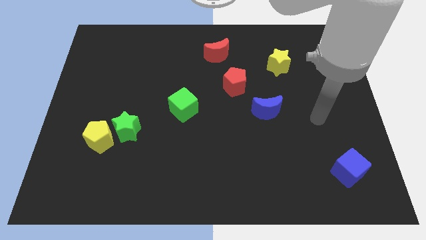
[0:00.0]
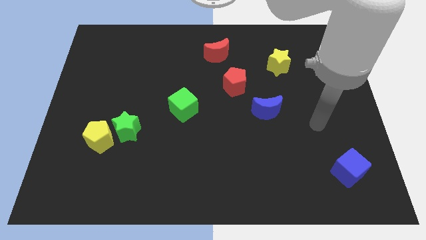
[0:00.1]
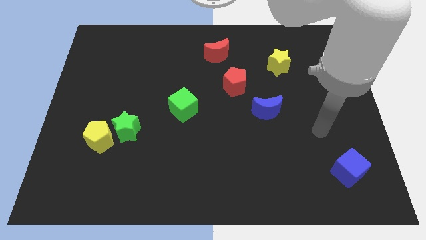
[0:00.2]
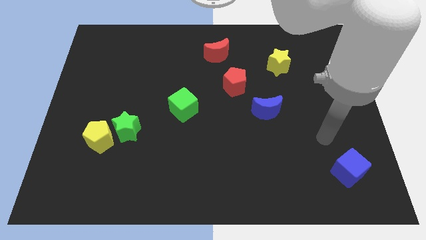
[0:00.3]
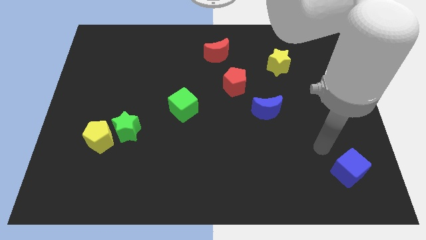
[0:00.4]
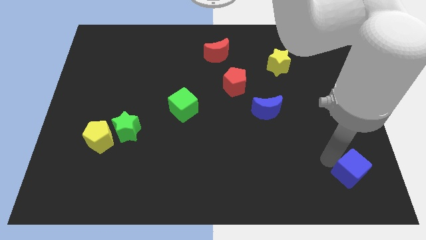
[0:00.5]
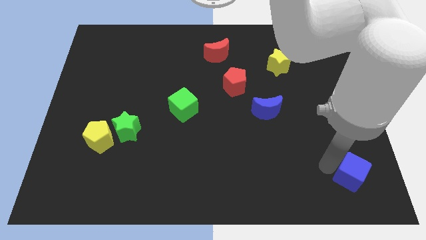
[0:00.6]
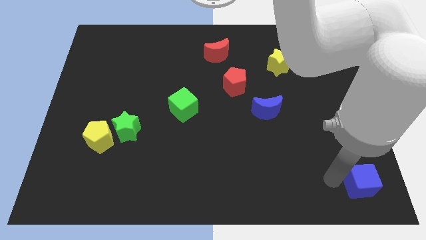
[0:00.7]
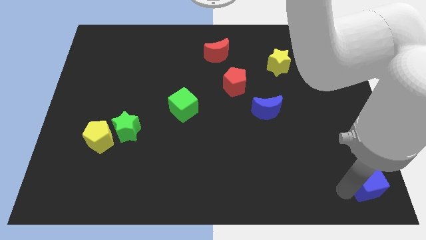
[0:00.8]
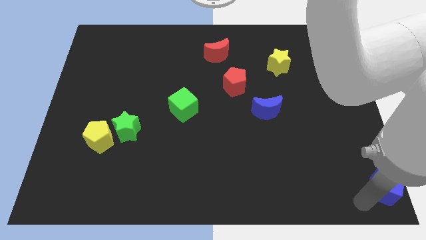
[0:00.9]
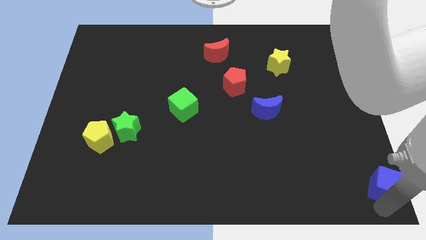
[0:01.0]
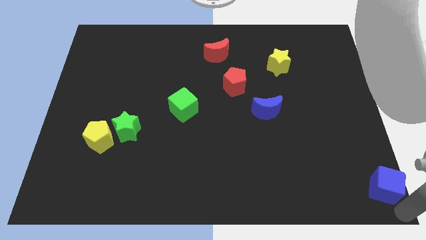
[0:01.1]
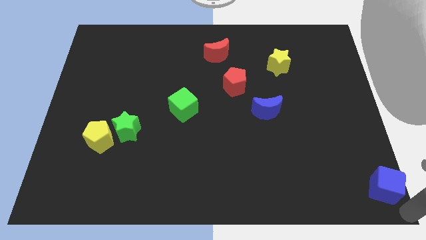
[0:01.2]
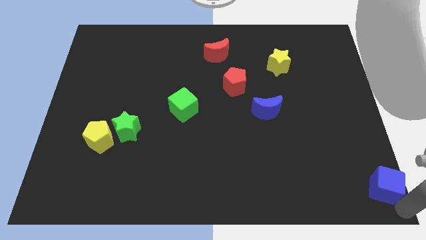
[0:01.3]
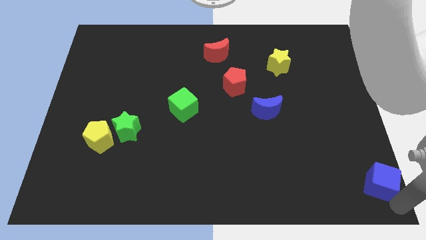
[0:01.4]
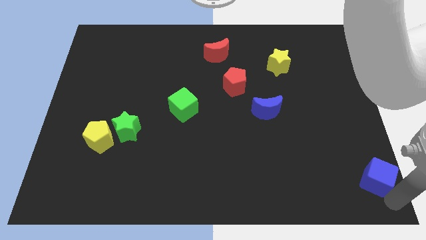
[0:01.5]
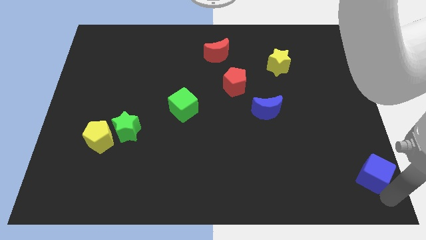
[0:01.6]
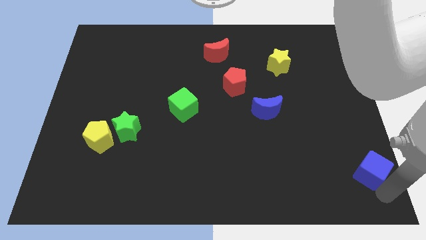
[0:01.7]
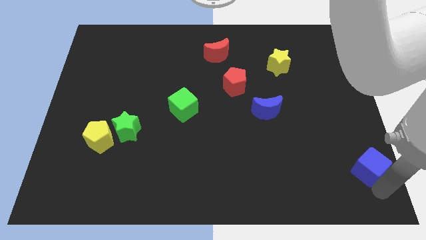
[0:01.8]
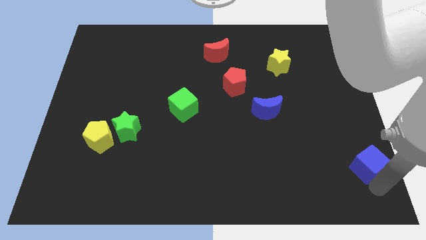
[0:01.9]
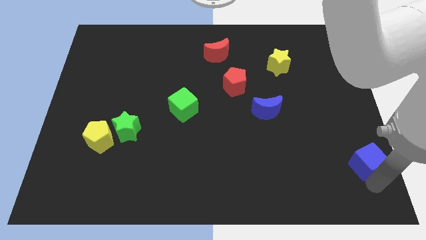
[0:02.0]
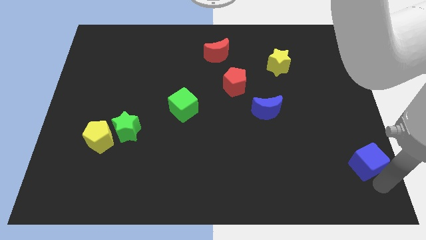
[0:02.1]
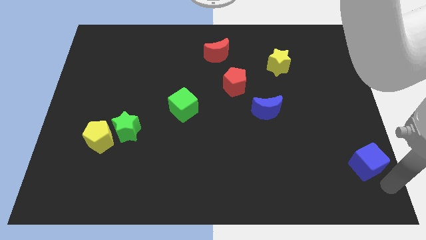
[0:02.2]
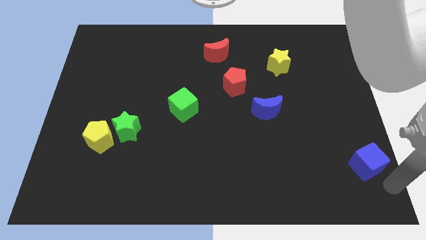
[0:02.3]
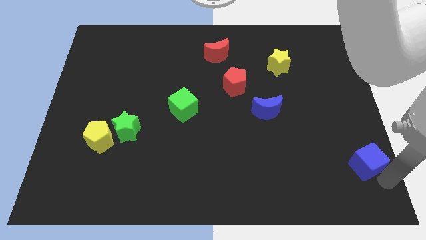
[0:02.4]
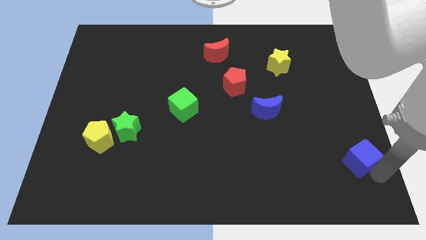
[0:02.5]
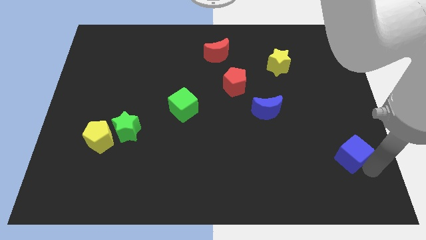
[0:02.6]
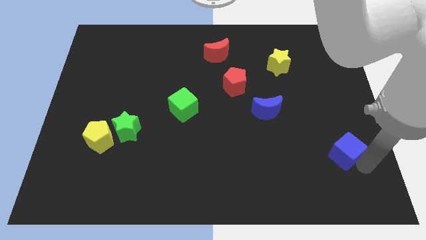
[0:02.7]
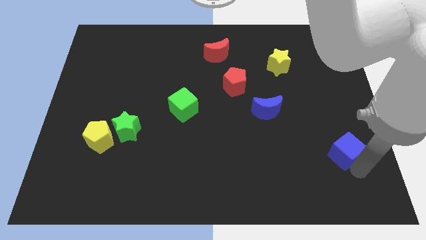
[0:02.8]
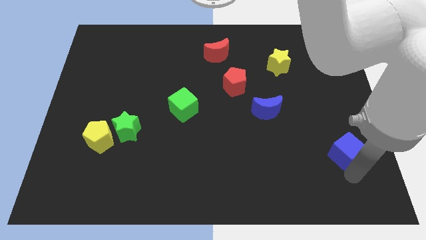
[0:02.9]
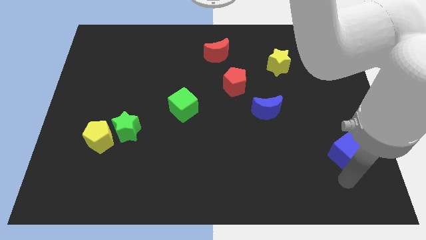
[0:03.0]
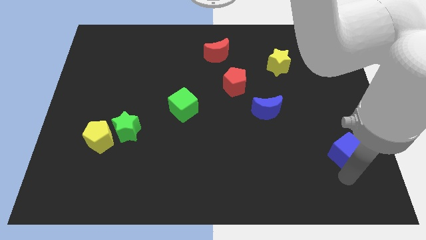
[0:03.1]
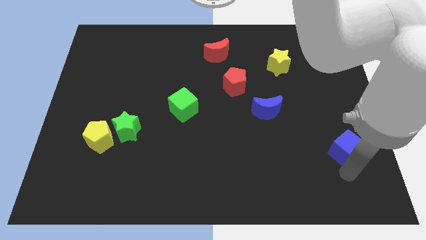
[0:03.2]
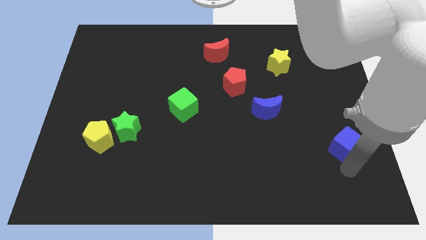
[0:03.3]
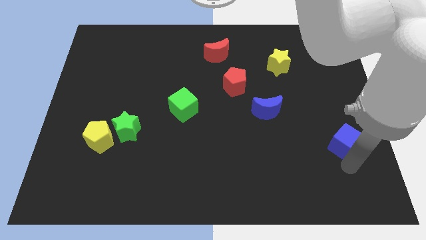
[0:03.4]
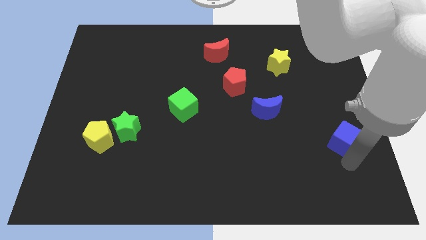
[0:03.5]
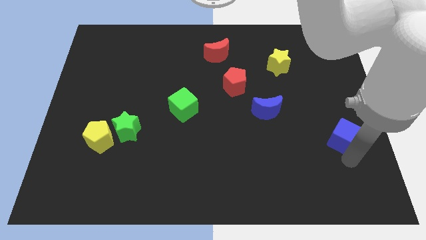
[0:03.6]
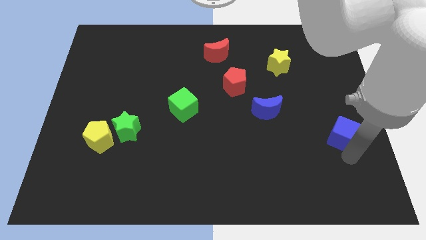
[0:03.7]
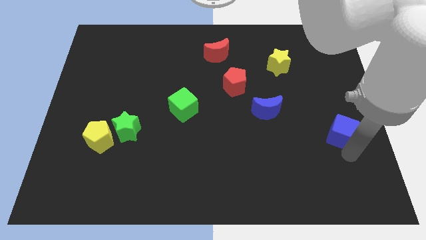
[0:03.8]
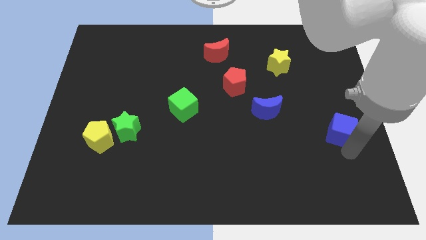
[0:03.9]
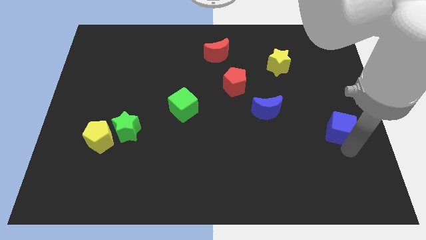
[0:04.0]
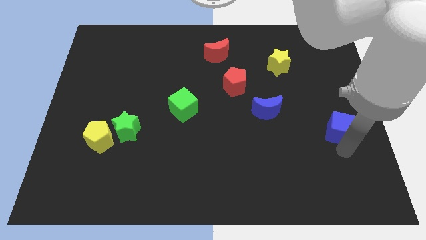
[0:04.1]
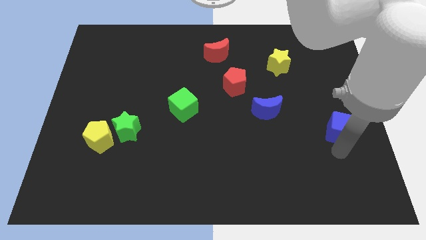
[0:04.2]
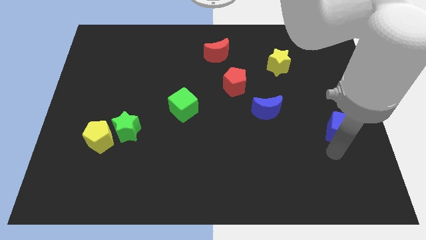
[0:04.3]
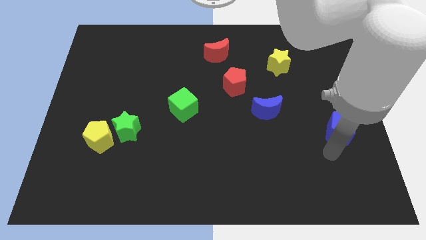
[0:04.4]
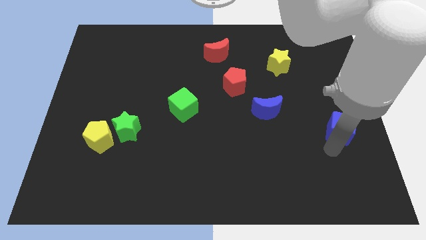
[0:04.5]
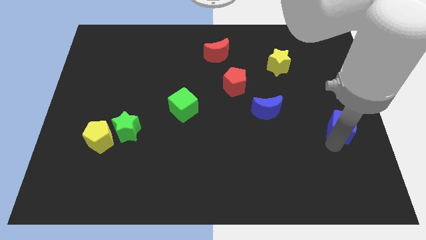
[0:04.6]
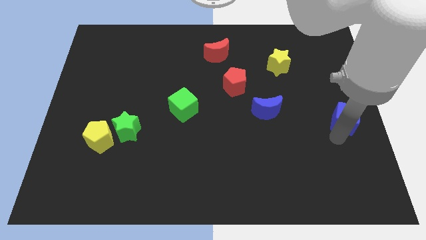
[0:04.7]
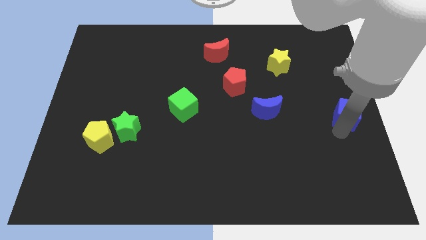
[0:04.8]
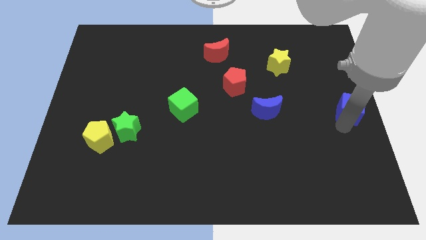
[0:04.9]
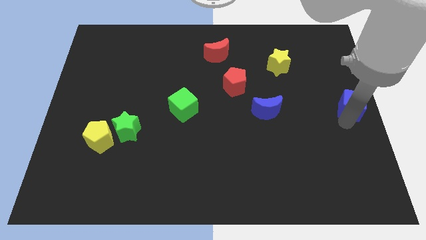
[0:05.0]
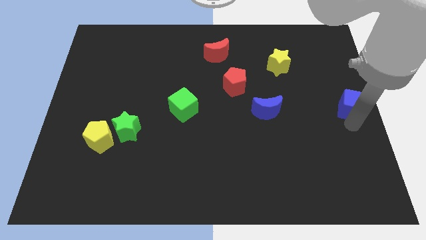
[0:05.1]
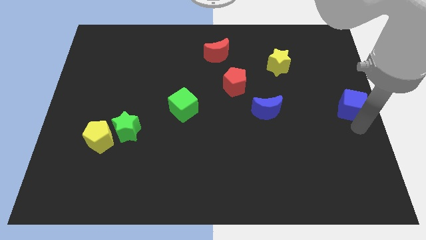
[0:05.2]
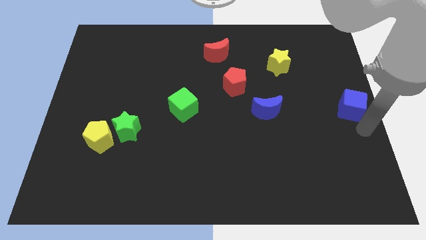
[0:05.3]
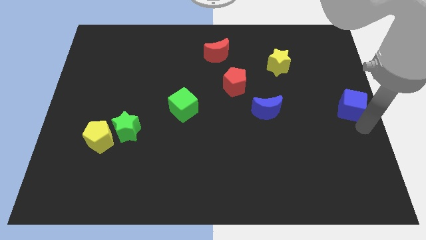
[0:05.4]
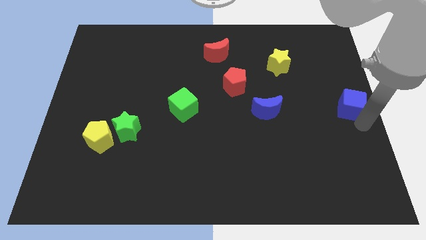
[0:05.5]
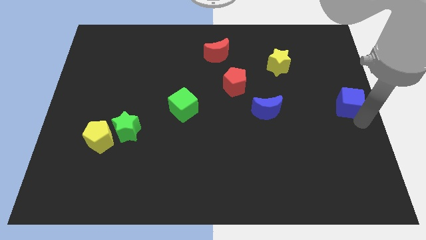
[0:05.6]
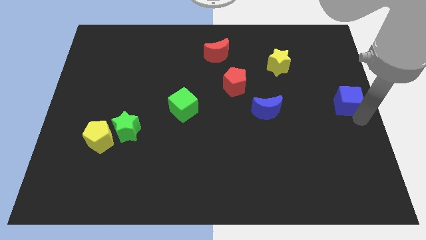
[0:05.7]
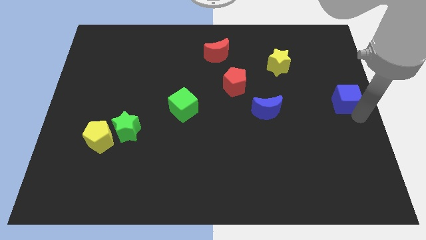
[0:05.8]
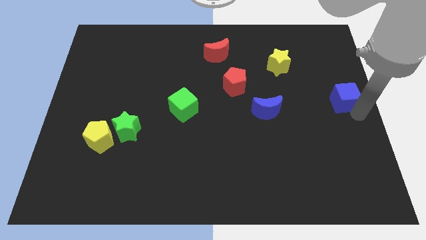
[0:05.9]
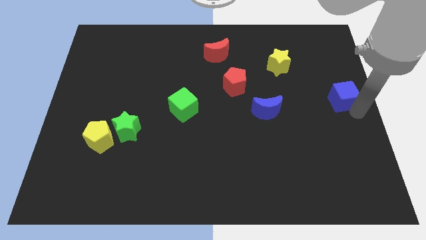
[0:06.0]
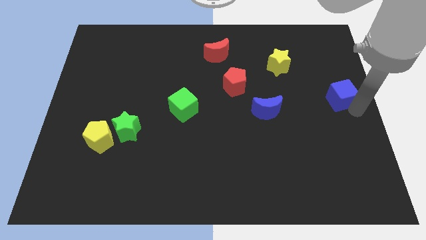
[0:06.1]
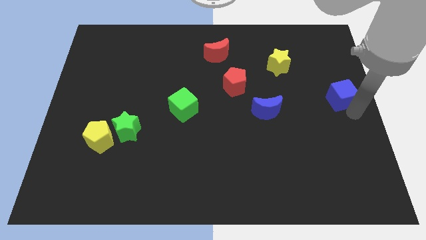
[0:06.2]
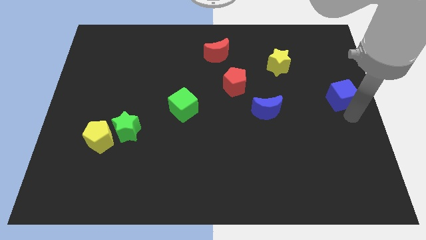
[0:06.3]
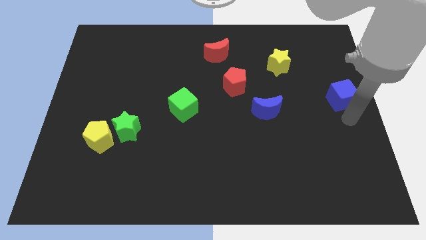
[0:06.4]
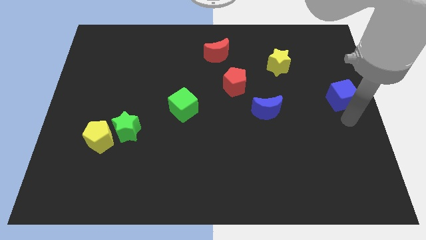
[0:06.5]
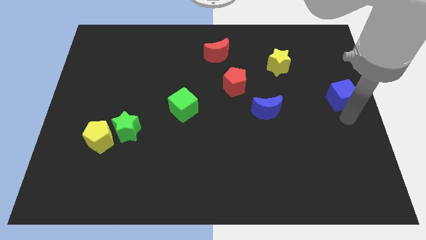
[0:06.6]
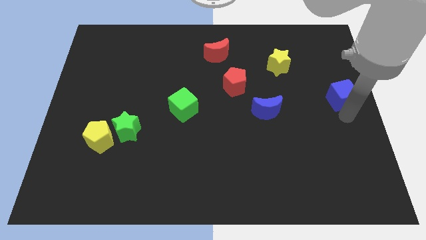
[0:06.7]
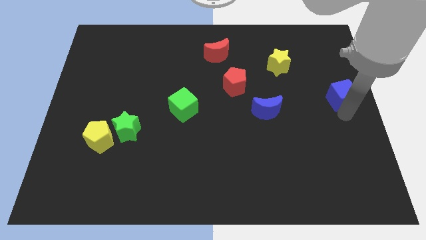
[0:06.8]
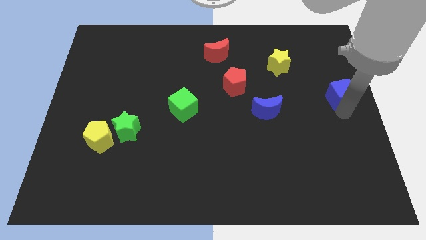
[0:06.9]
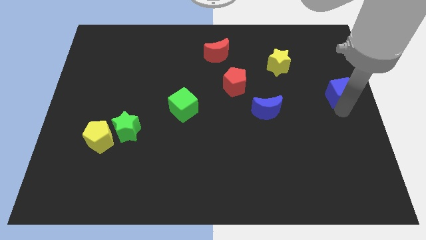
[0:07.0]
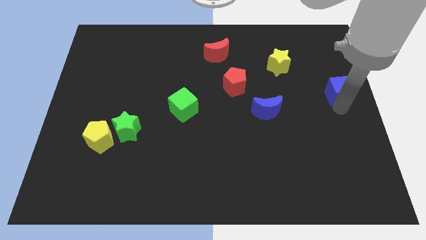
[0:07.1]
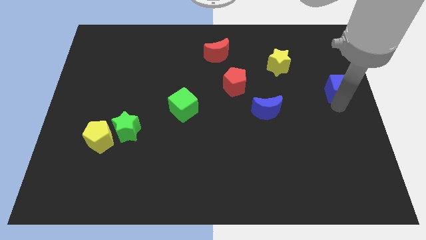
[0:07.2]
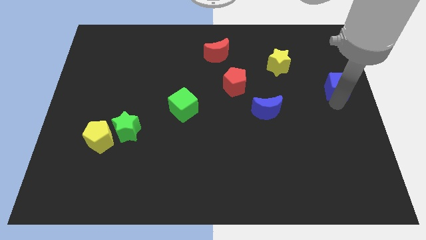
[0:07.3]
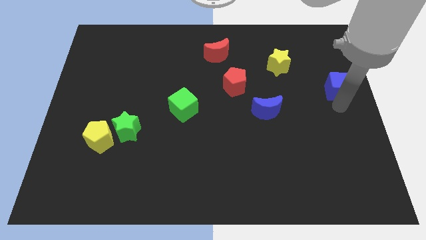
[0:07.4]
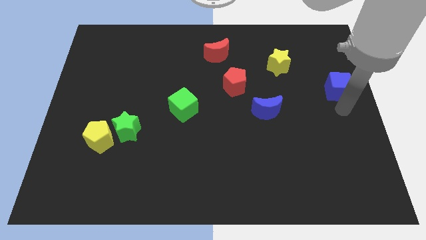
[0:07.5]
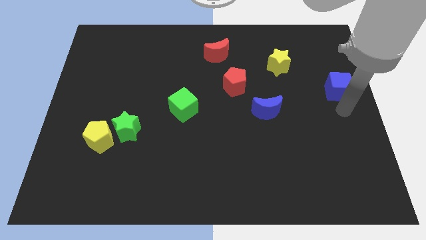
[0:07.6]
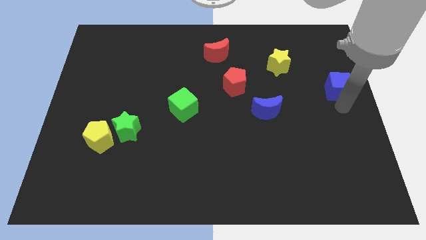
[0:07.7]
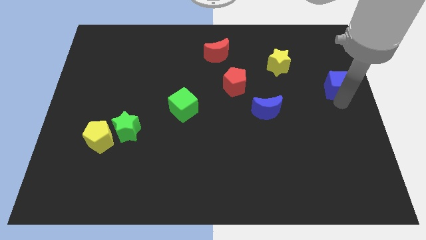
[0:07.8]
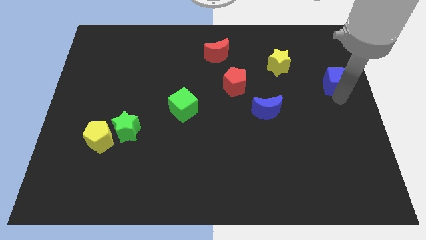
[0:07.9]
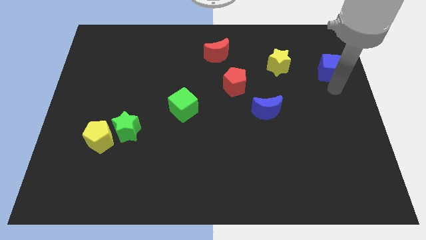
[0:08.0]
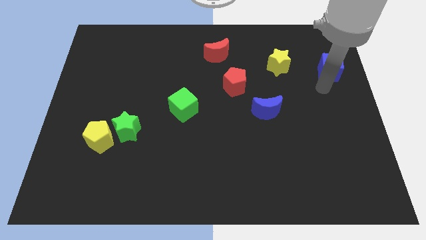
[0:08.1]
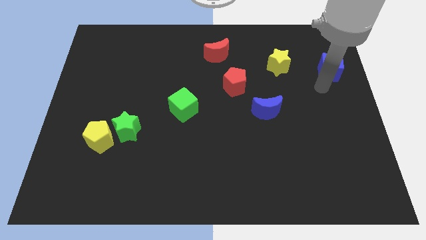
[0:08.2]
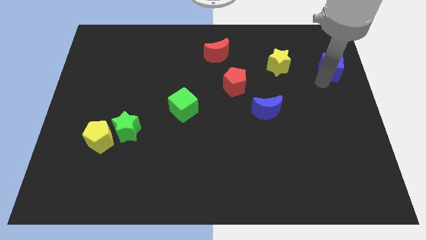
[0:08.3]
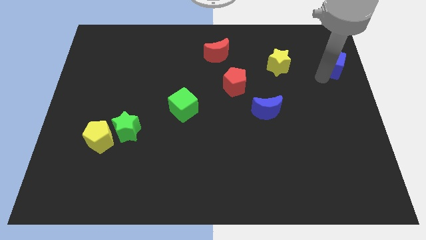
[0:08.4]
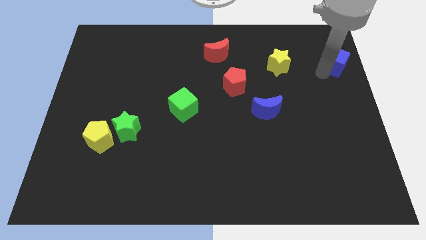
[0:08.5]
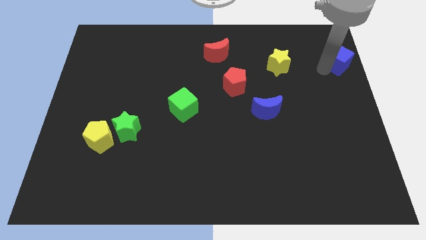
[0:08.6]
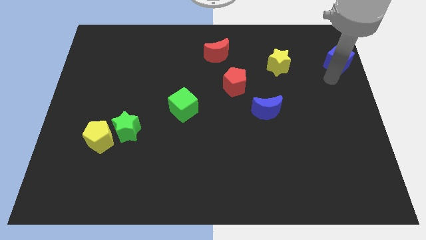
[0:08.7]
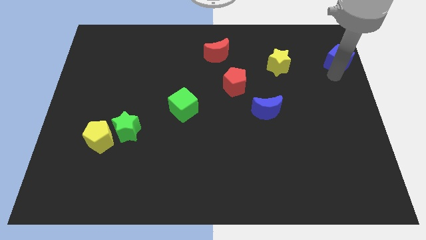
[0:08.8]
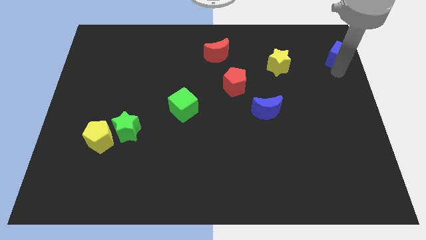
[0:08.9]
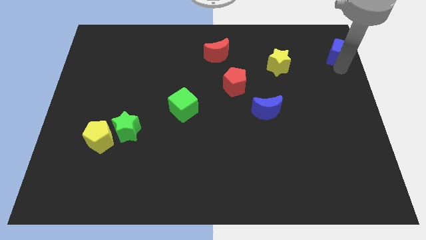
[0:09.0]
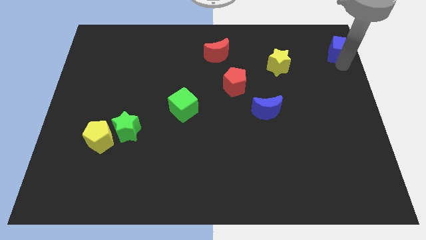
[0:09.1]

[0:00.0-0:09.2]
put the blue cube to the top right corner
